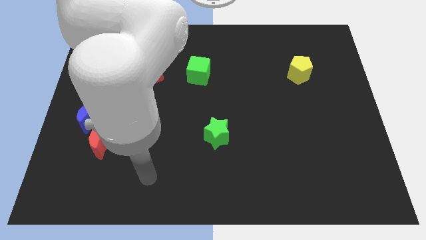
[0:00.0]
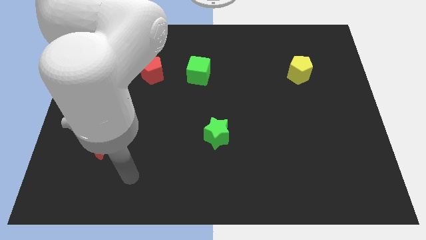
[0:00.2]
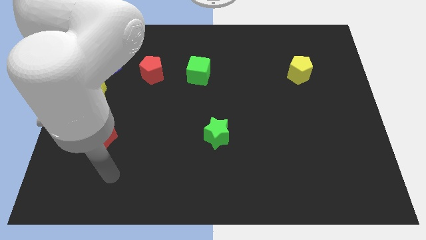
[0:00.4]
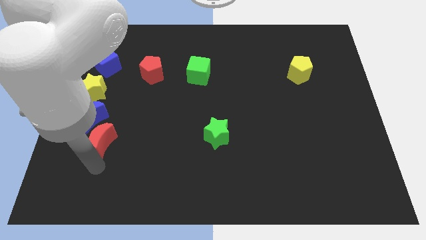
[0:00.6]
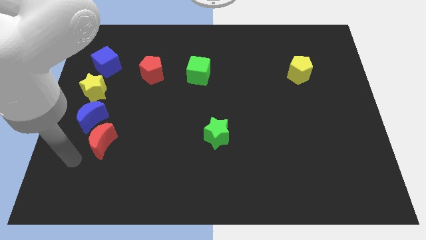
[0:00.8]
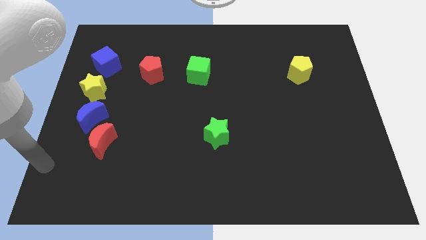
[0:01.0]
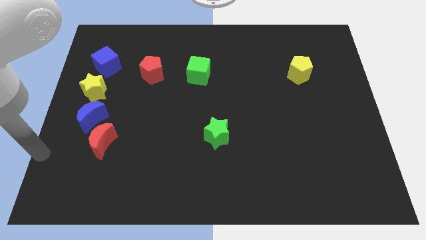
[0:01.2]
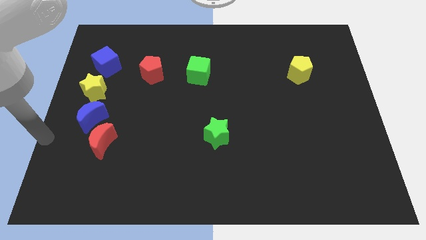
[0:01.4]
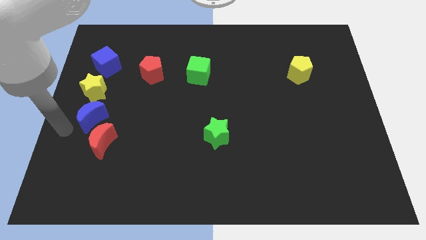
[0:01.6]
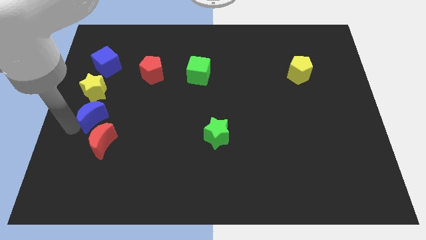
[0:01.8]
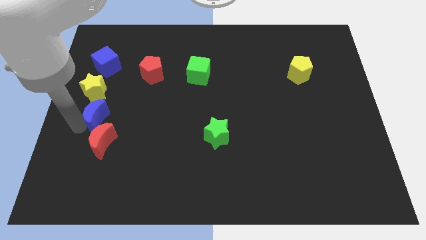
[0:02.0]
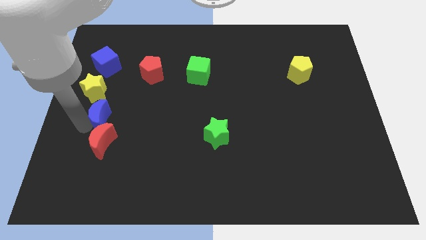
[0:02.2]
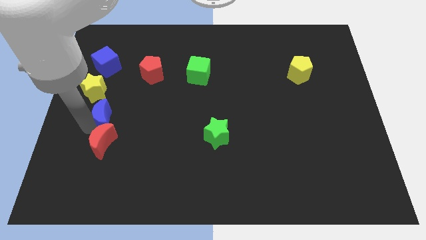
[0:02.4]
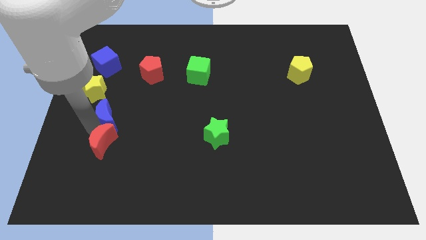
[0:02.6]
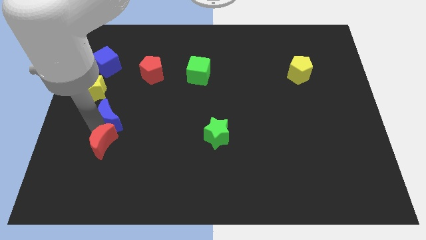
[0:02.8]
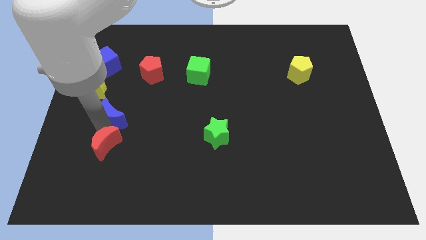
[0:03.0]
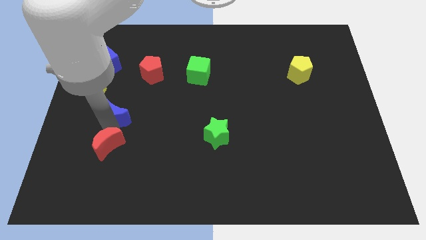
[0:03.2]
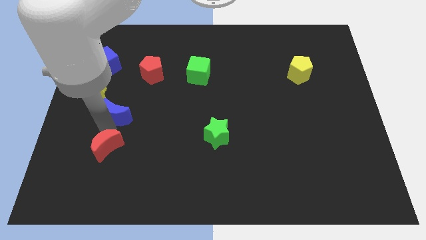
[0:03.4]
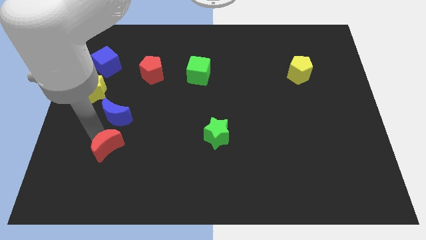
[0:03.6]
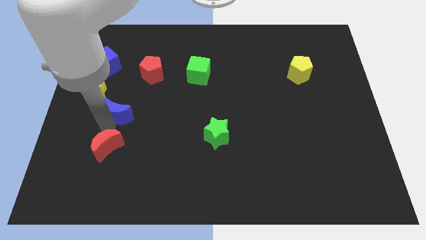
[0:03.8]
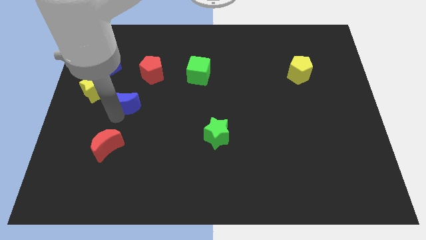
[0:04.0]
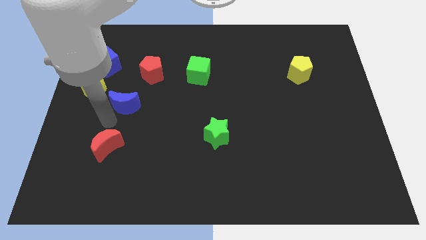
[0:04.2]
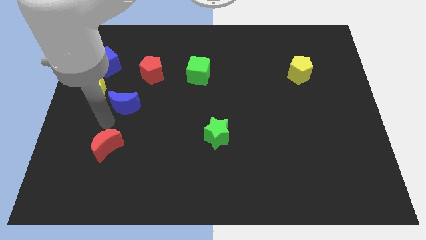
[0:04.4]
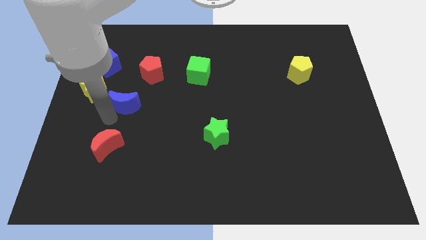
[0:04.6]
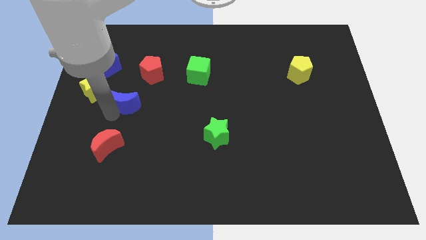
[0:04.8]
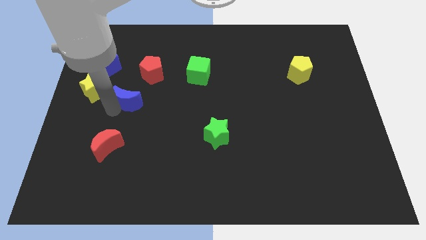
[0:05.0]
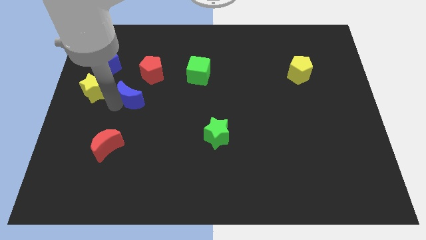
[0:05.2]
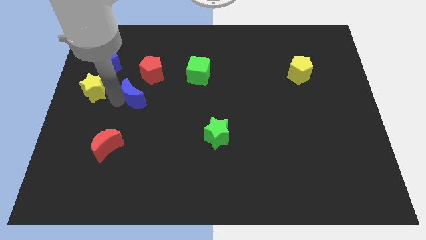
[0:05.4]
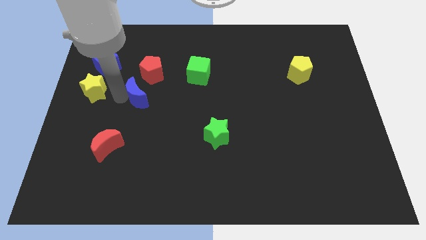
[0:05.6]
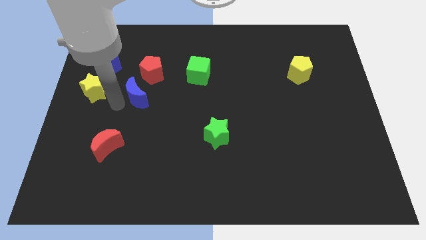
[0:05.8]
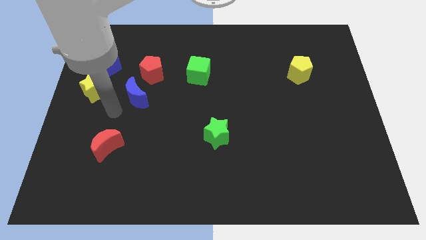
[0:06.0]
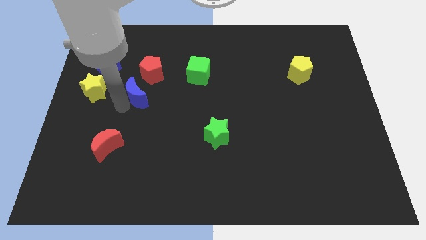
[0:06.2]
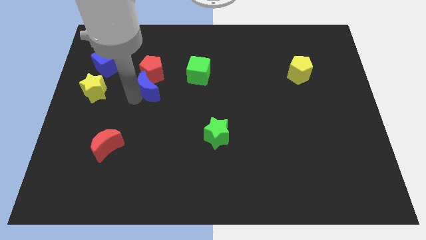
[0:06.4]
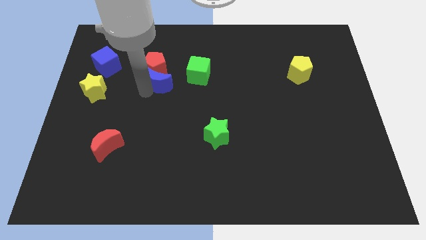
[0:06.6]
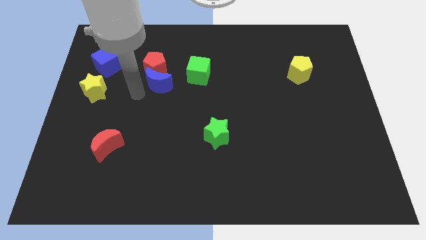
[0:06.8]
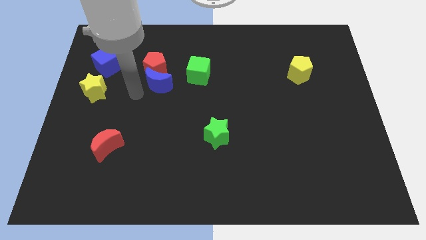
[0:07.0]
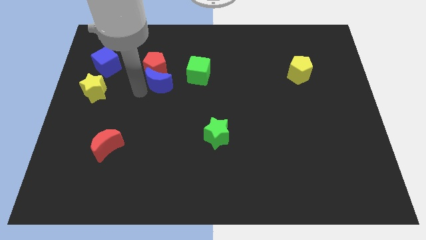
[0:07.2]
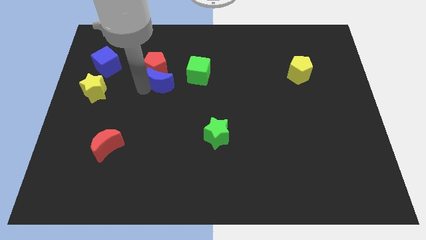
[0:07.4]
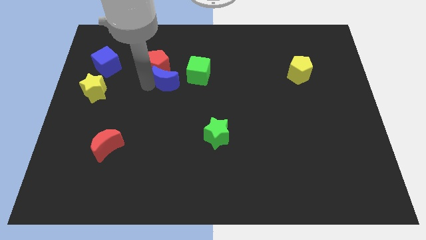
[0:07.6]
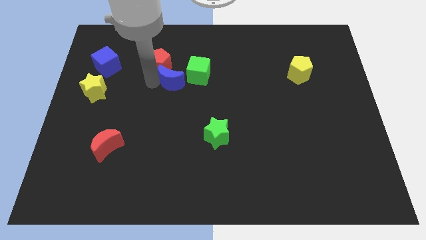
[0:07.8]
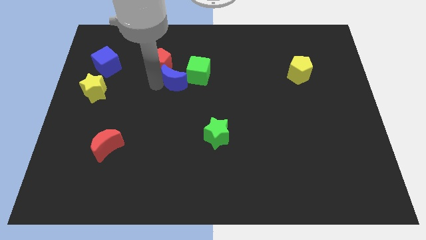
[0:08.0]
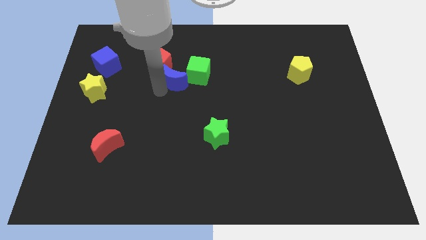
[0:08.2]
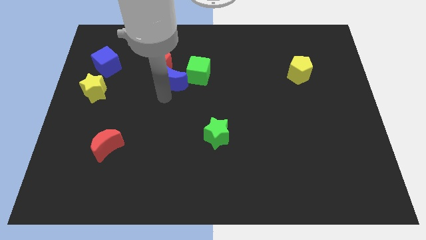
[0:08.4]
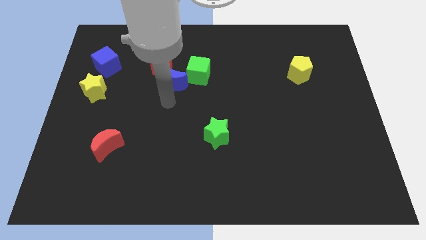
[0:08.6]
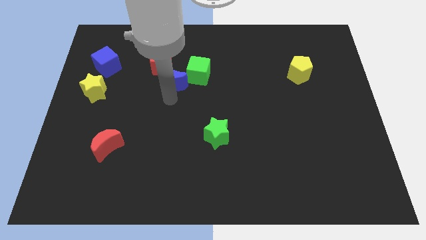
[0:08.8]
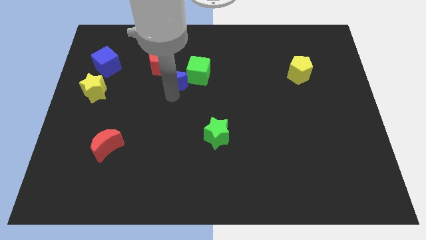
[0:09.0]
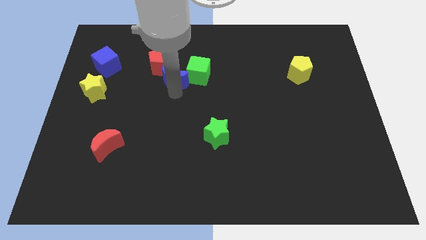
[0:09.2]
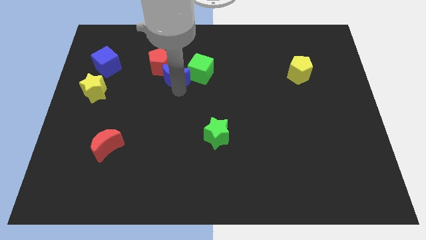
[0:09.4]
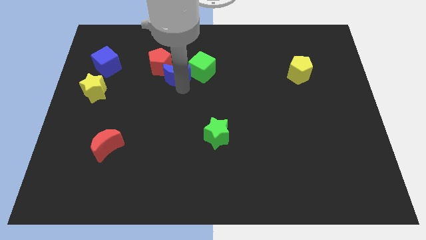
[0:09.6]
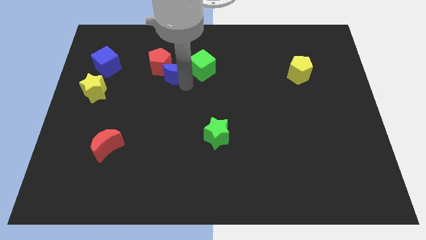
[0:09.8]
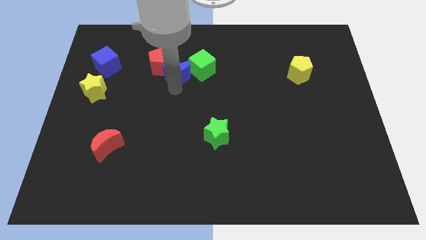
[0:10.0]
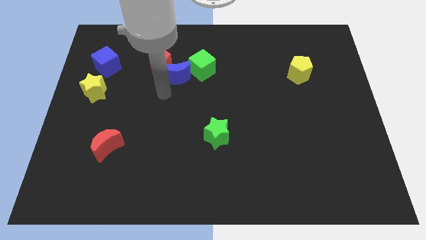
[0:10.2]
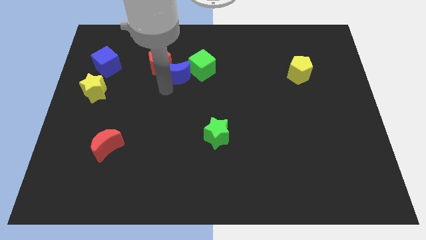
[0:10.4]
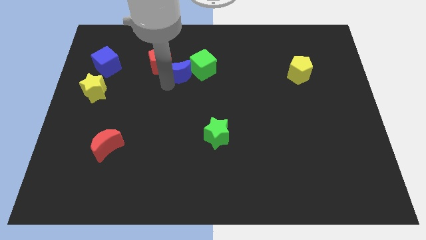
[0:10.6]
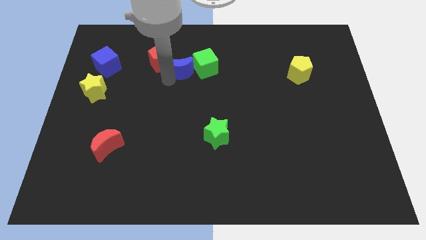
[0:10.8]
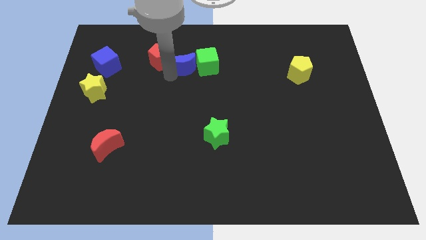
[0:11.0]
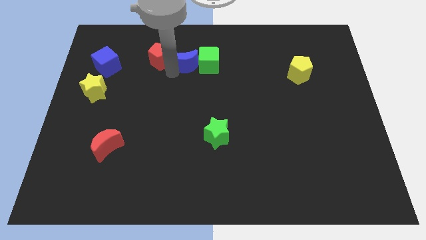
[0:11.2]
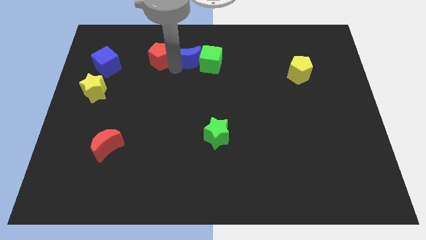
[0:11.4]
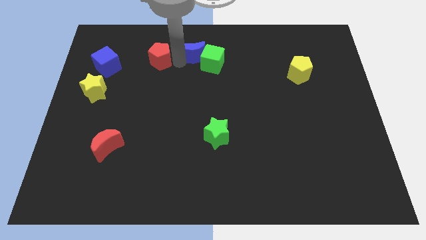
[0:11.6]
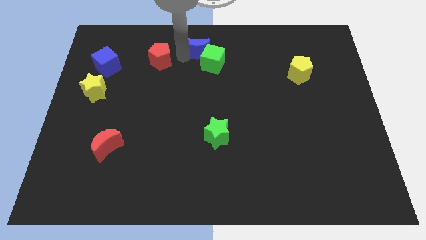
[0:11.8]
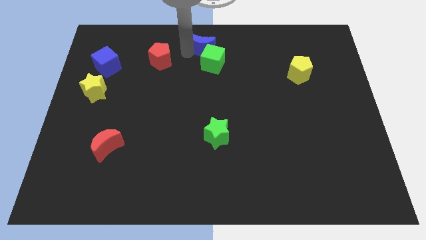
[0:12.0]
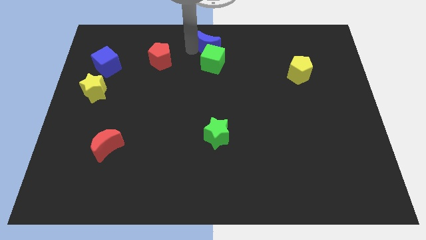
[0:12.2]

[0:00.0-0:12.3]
push the blue moon to the top right side of the green cube
